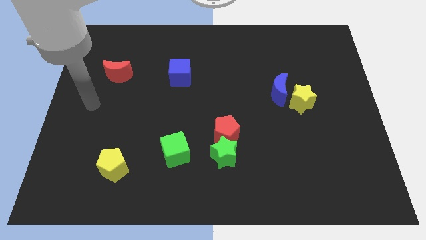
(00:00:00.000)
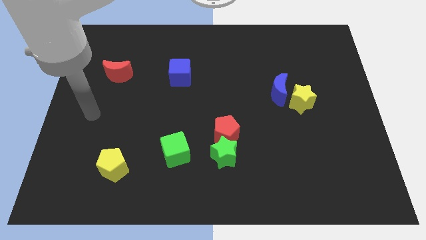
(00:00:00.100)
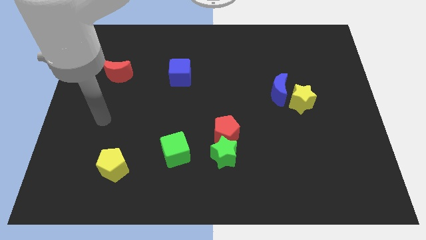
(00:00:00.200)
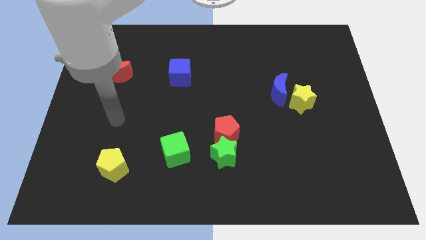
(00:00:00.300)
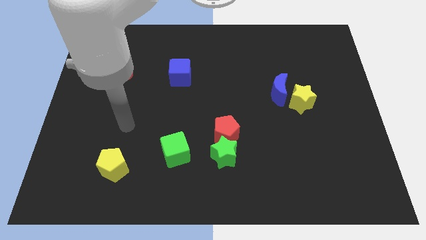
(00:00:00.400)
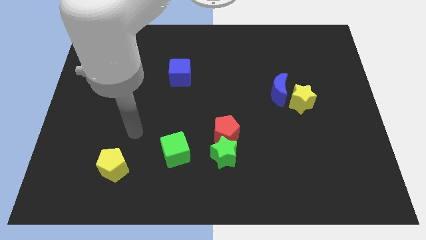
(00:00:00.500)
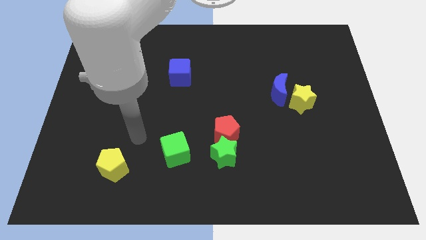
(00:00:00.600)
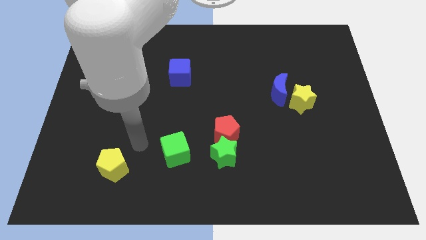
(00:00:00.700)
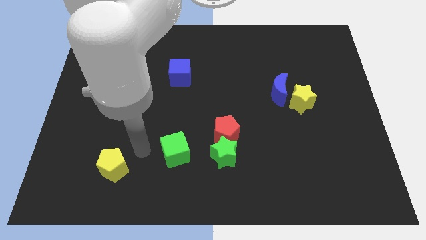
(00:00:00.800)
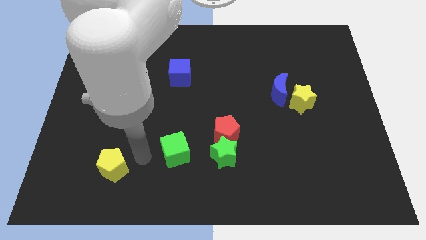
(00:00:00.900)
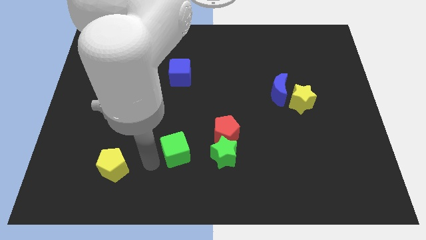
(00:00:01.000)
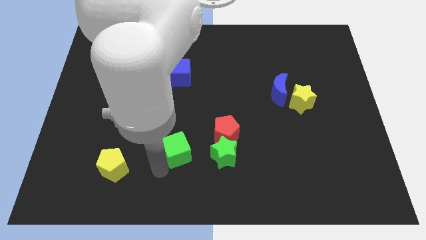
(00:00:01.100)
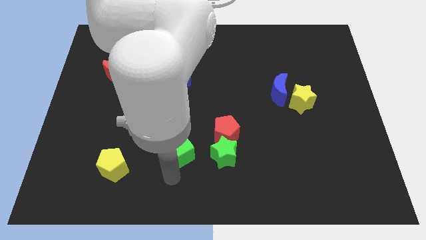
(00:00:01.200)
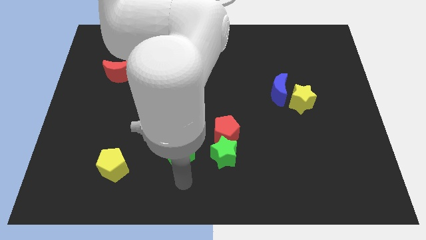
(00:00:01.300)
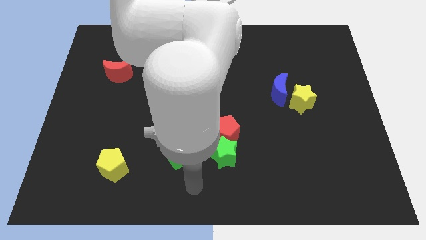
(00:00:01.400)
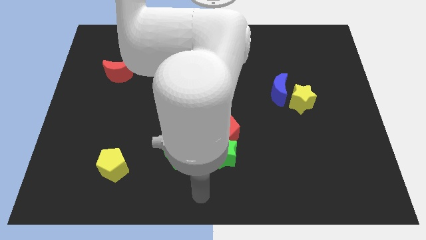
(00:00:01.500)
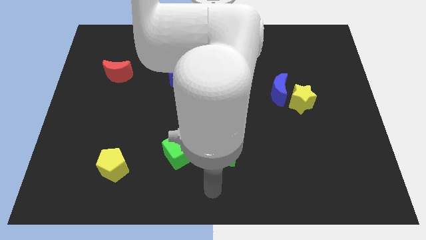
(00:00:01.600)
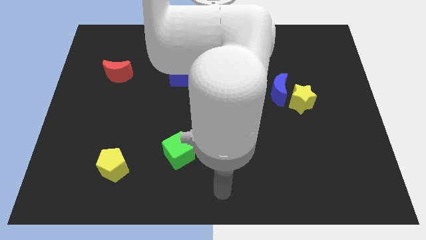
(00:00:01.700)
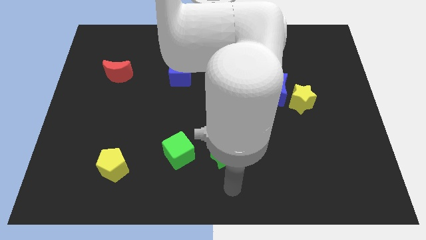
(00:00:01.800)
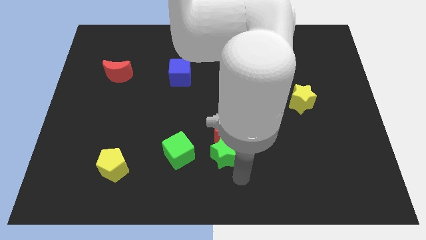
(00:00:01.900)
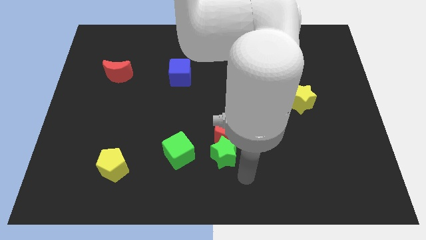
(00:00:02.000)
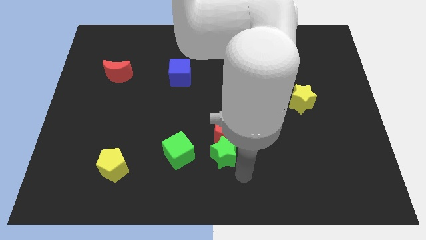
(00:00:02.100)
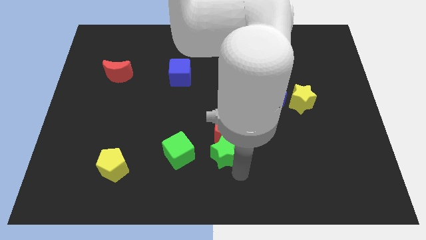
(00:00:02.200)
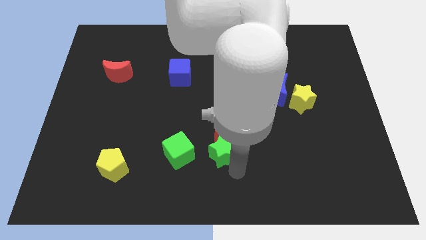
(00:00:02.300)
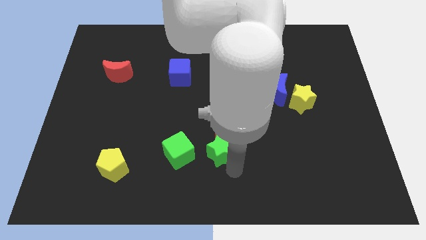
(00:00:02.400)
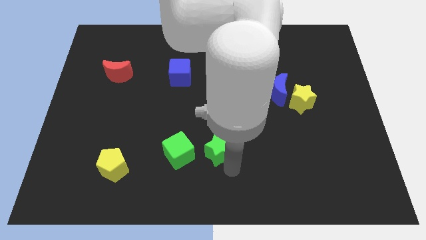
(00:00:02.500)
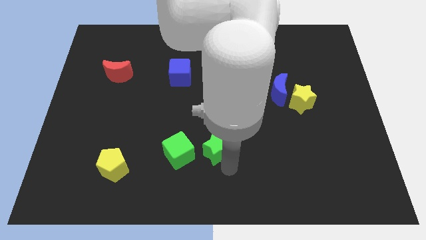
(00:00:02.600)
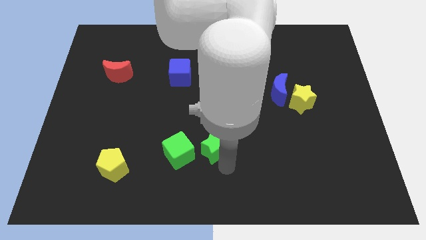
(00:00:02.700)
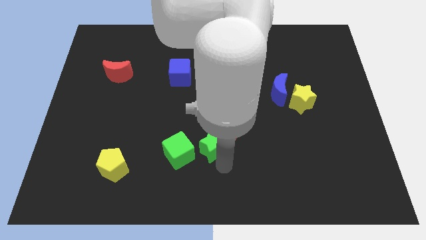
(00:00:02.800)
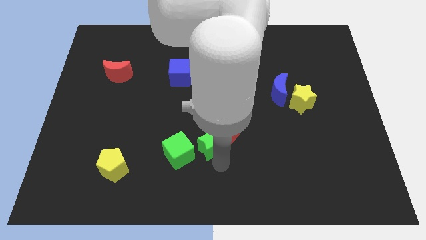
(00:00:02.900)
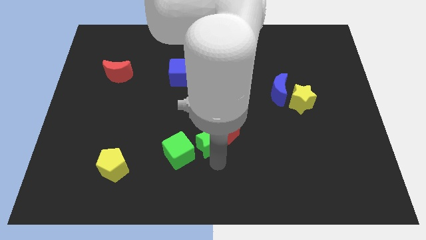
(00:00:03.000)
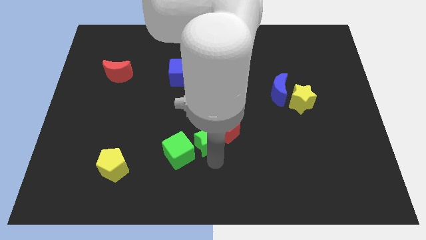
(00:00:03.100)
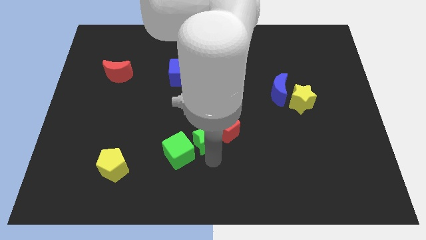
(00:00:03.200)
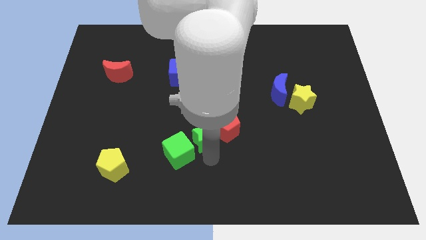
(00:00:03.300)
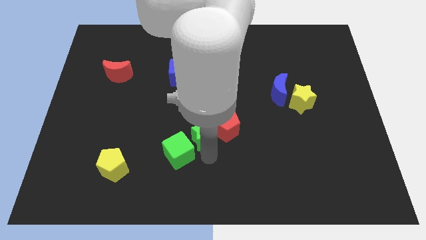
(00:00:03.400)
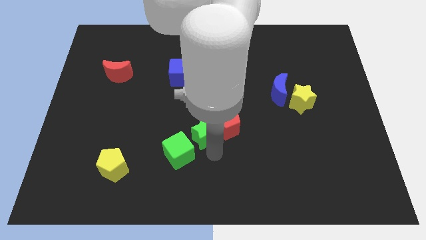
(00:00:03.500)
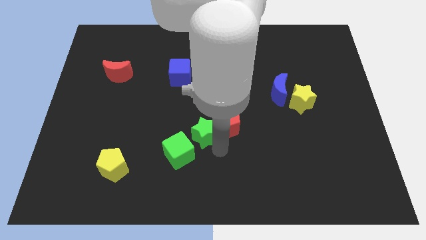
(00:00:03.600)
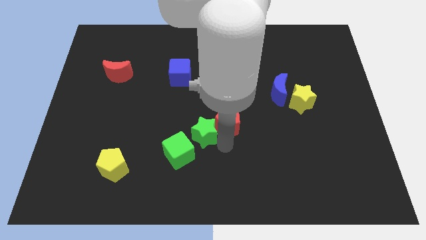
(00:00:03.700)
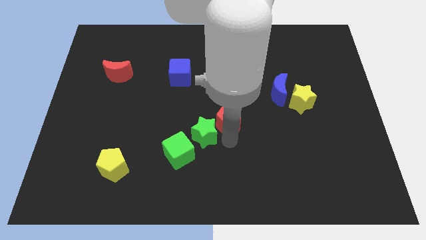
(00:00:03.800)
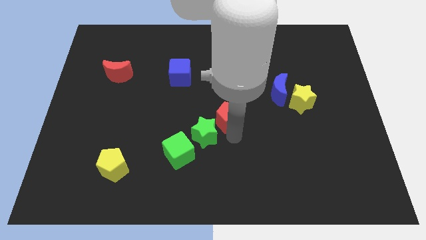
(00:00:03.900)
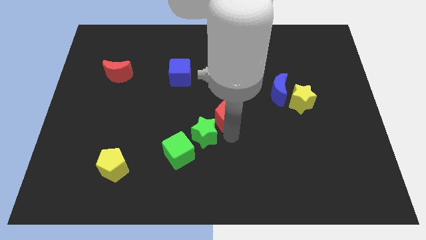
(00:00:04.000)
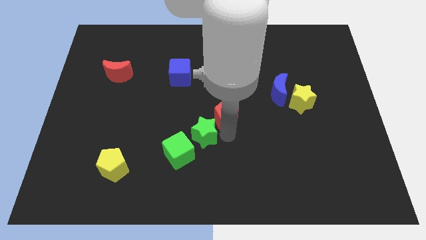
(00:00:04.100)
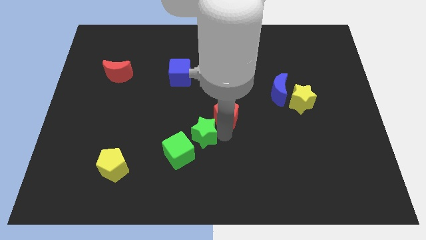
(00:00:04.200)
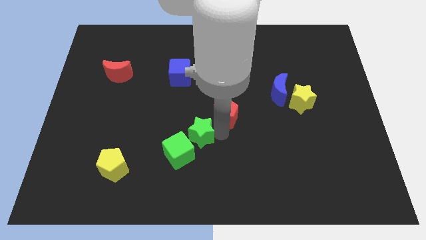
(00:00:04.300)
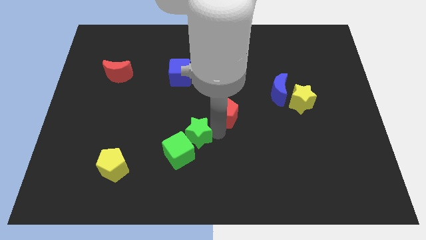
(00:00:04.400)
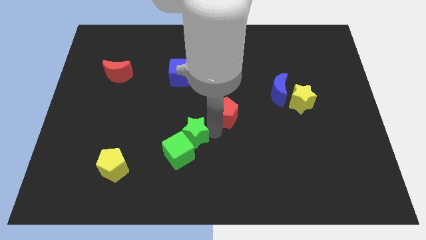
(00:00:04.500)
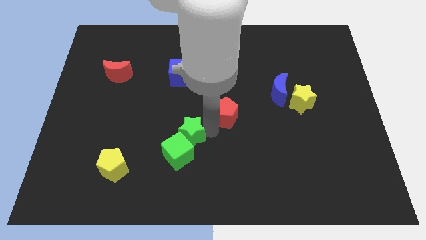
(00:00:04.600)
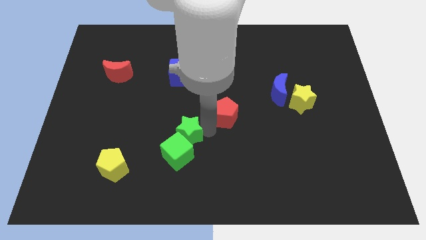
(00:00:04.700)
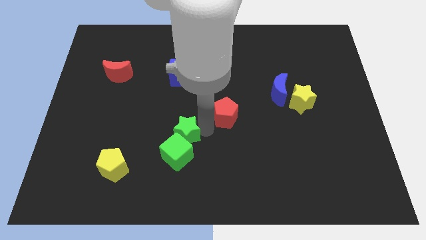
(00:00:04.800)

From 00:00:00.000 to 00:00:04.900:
slide the green star a little to the left

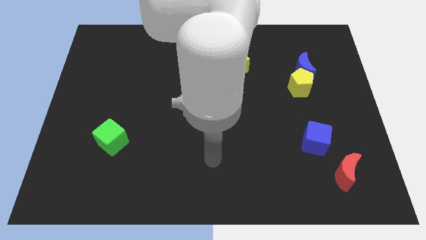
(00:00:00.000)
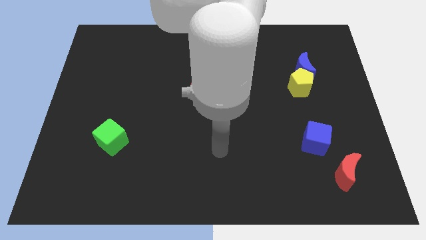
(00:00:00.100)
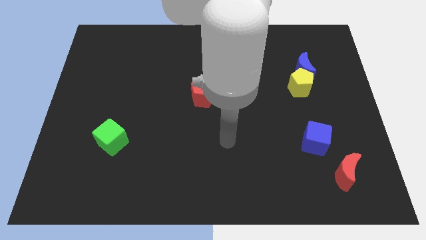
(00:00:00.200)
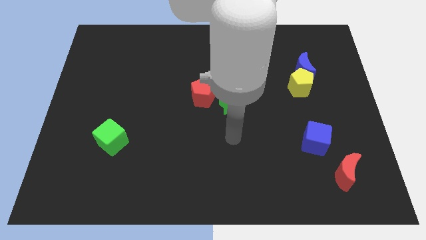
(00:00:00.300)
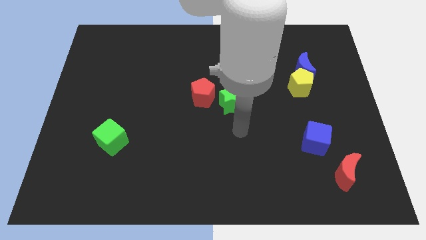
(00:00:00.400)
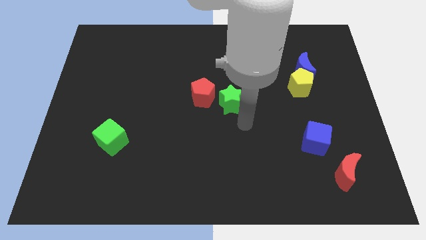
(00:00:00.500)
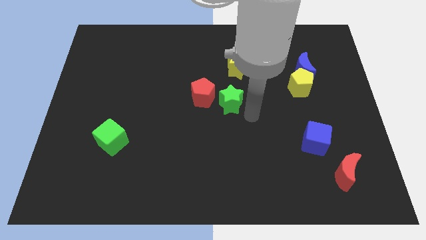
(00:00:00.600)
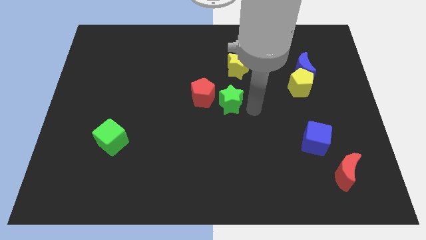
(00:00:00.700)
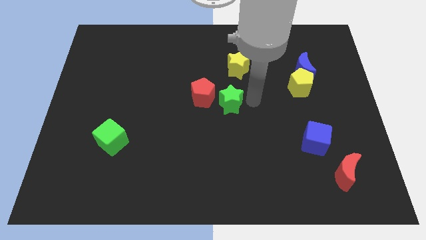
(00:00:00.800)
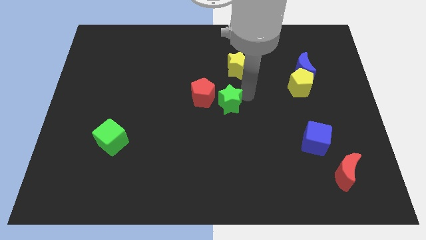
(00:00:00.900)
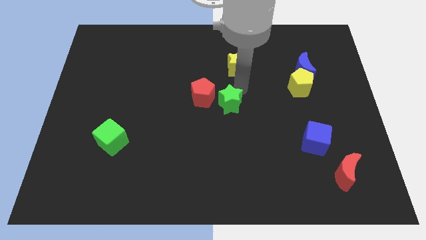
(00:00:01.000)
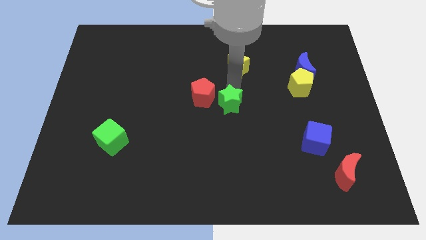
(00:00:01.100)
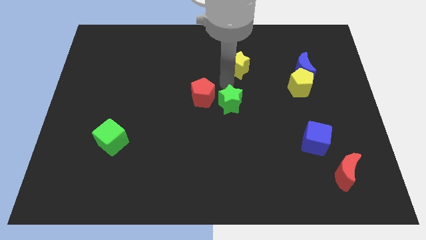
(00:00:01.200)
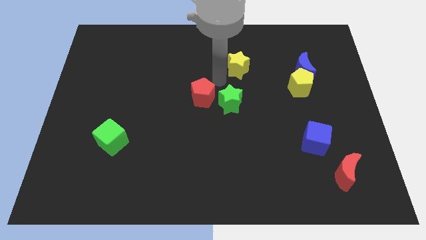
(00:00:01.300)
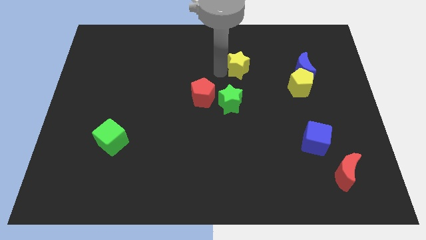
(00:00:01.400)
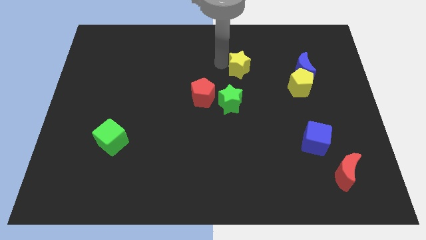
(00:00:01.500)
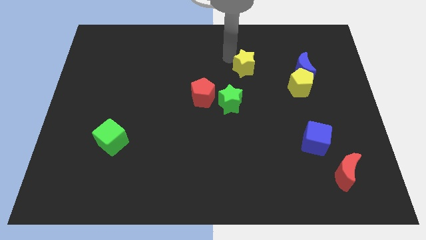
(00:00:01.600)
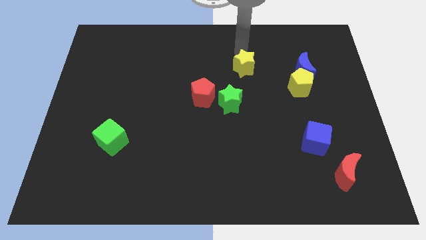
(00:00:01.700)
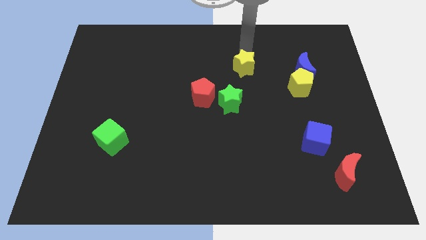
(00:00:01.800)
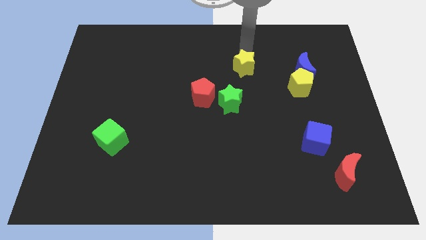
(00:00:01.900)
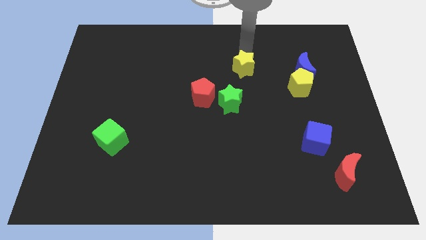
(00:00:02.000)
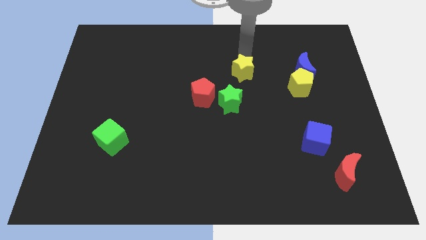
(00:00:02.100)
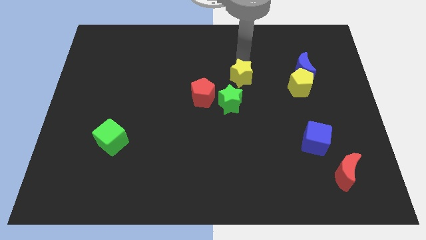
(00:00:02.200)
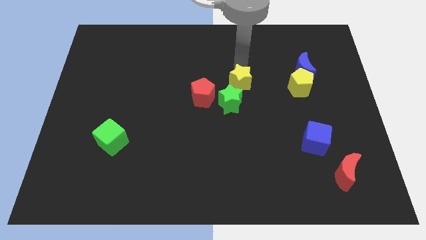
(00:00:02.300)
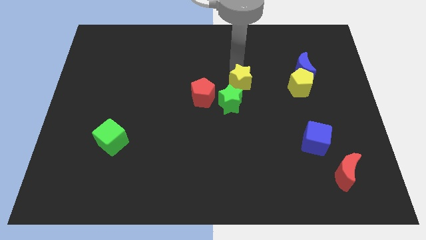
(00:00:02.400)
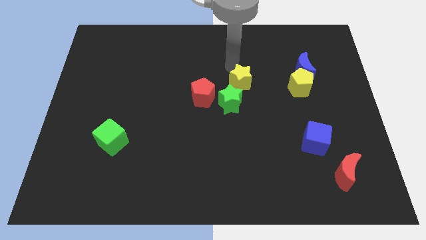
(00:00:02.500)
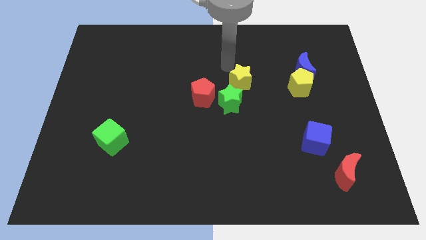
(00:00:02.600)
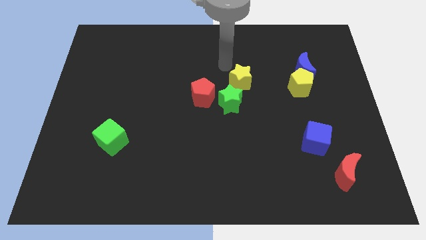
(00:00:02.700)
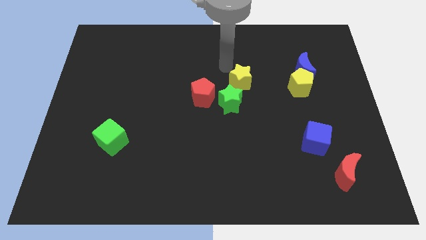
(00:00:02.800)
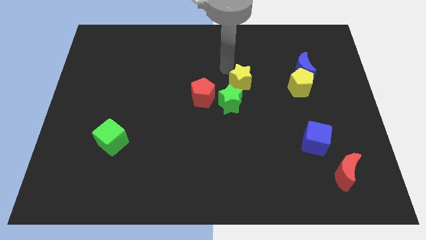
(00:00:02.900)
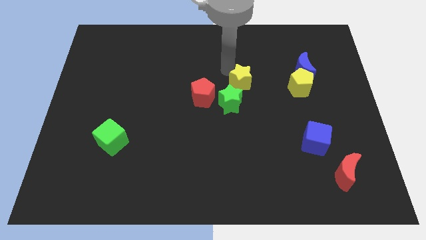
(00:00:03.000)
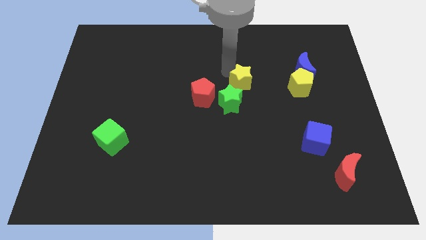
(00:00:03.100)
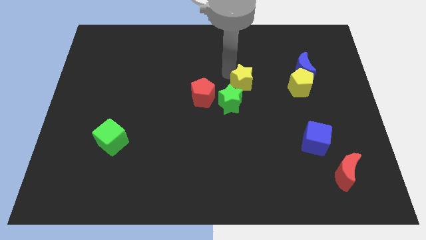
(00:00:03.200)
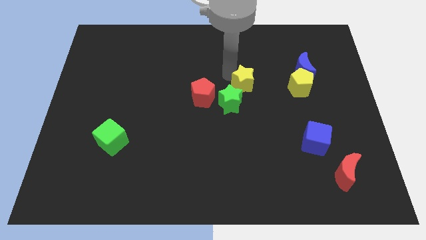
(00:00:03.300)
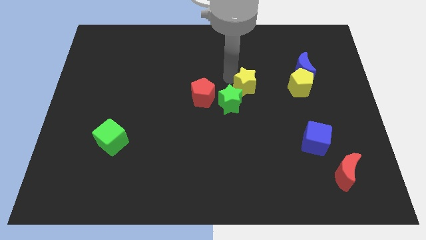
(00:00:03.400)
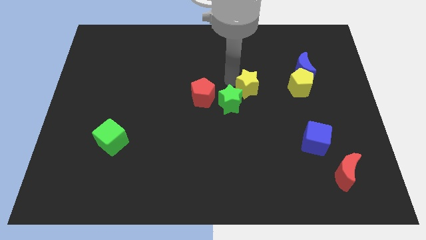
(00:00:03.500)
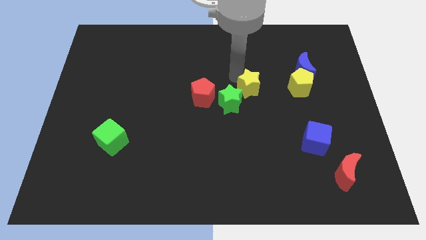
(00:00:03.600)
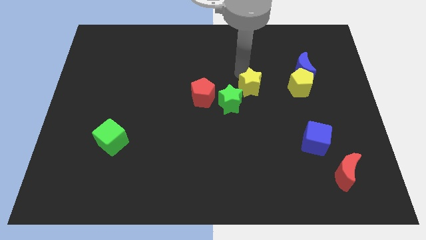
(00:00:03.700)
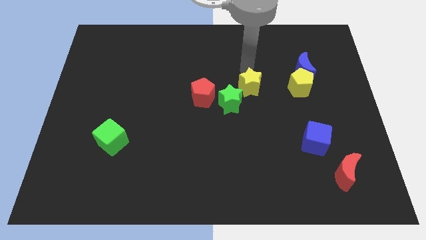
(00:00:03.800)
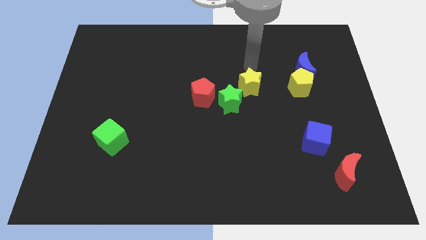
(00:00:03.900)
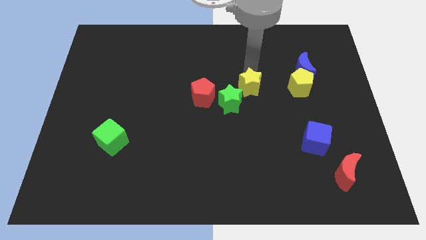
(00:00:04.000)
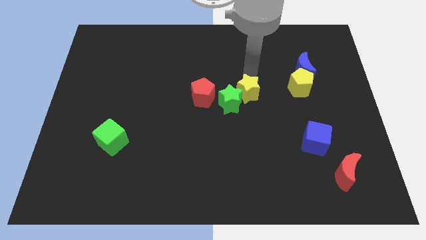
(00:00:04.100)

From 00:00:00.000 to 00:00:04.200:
move the yellow star down slightly
